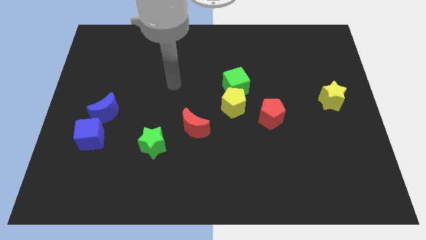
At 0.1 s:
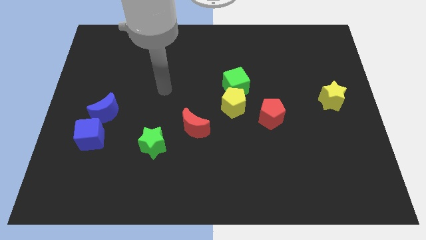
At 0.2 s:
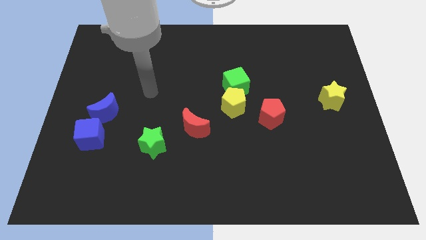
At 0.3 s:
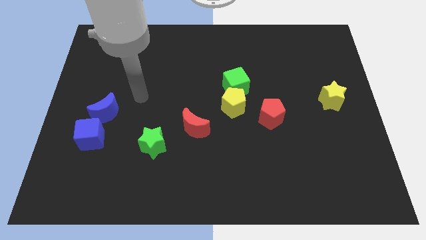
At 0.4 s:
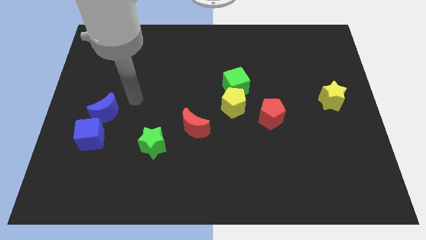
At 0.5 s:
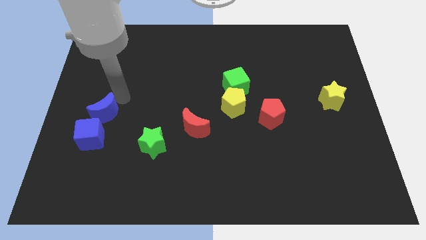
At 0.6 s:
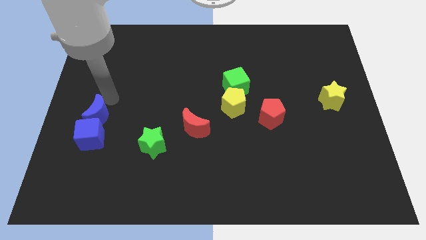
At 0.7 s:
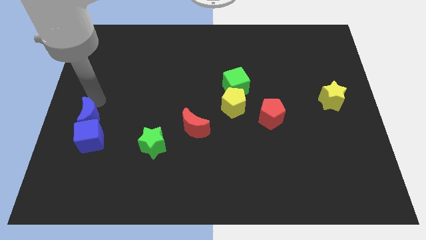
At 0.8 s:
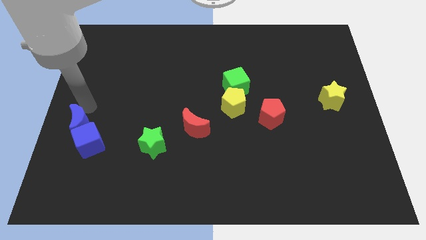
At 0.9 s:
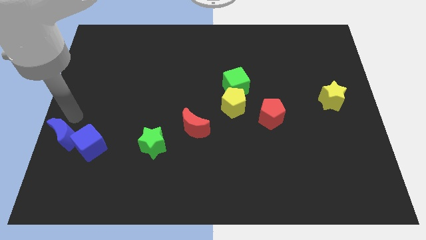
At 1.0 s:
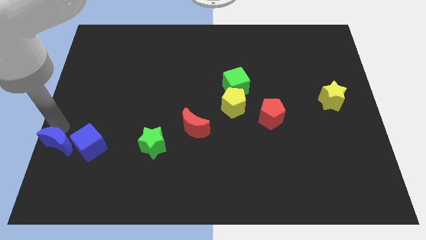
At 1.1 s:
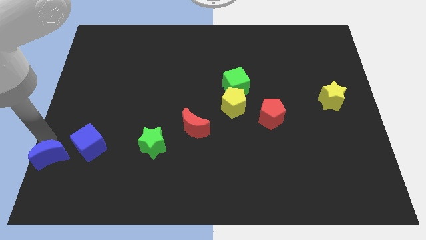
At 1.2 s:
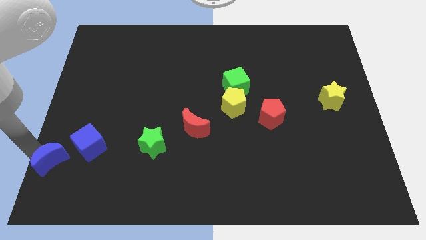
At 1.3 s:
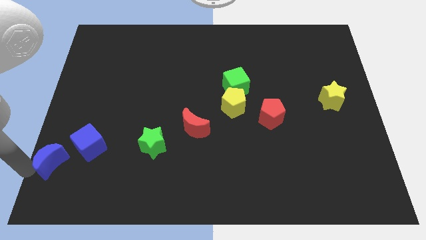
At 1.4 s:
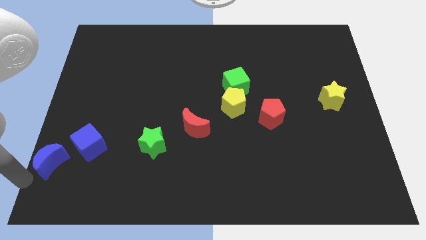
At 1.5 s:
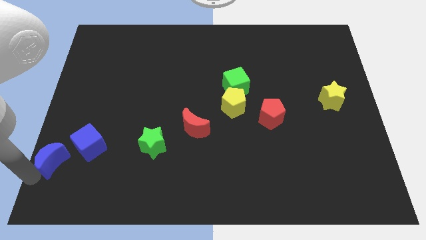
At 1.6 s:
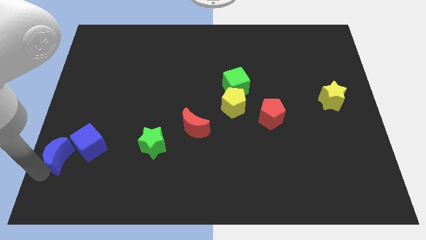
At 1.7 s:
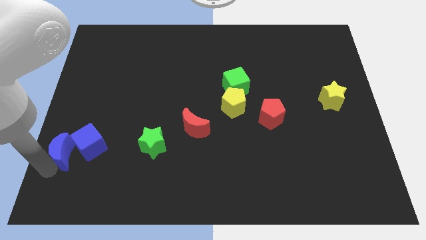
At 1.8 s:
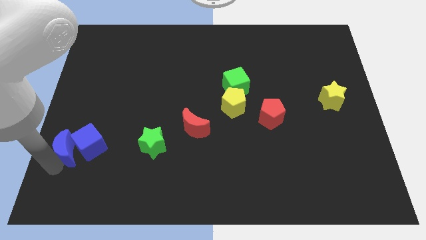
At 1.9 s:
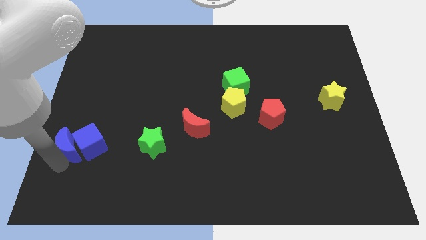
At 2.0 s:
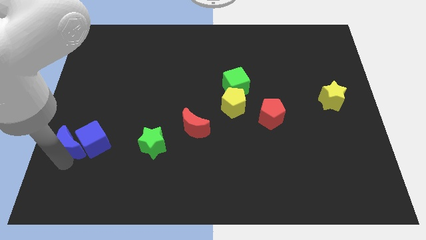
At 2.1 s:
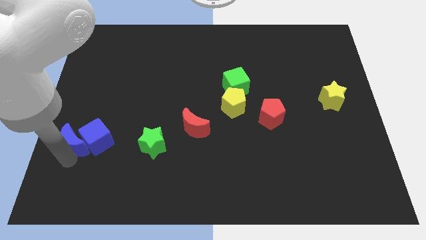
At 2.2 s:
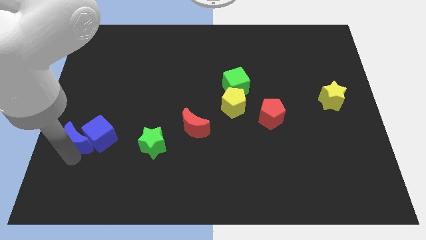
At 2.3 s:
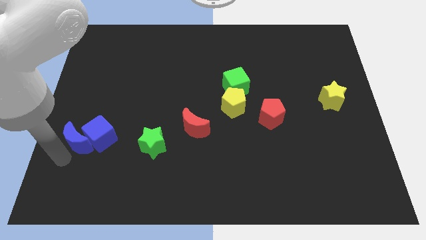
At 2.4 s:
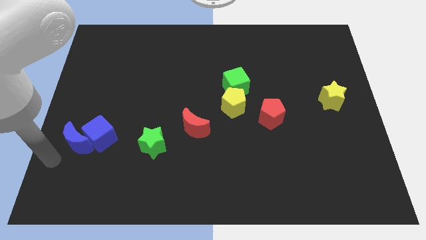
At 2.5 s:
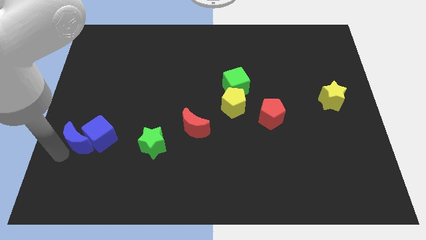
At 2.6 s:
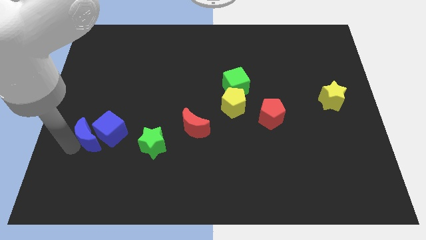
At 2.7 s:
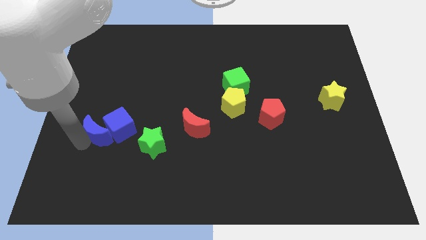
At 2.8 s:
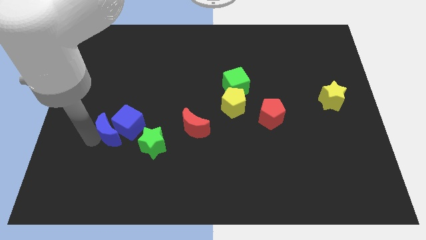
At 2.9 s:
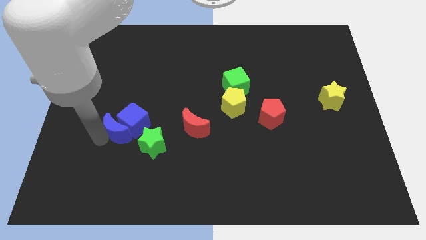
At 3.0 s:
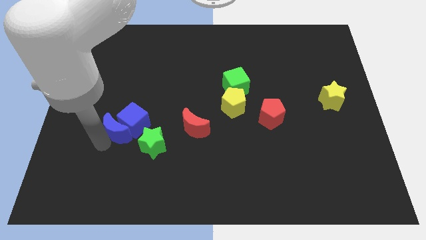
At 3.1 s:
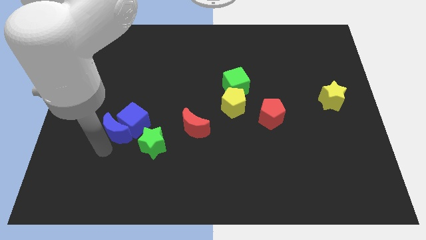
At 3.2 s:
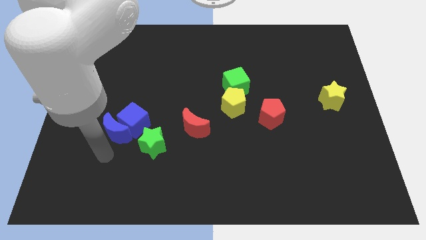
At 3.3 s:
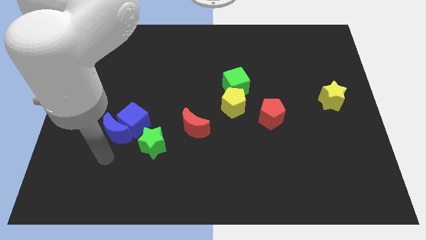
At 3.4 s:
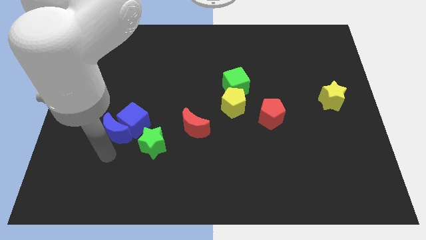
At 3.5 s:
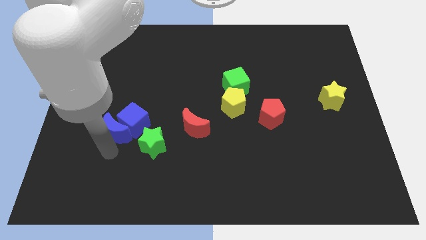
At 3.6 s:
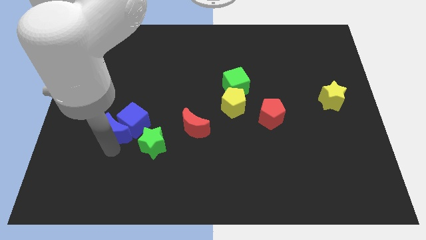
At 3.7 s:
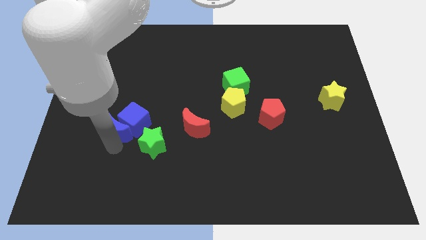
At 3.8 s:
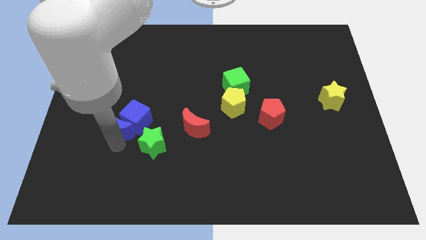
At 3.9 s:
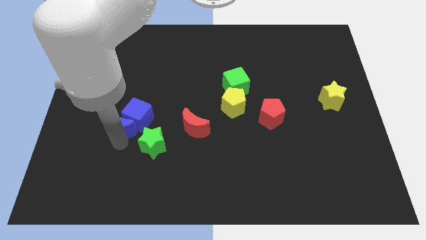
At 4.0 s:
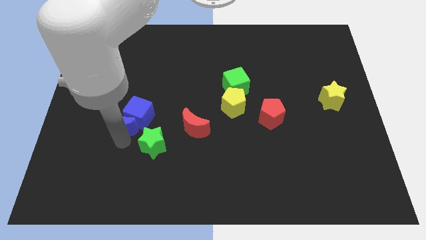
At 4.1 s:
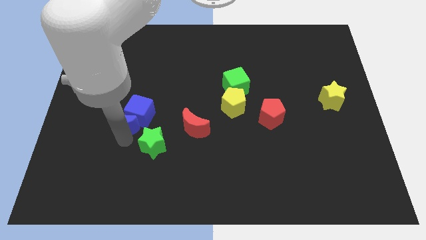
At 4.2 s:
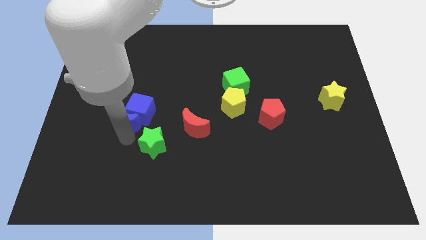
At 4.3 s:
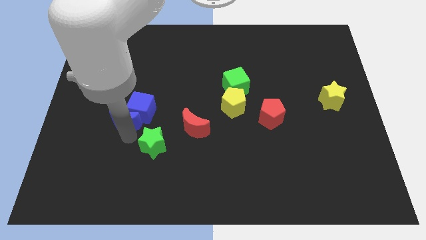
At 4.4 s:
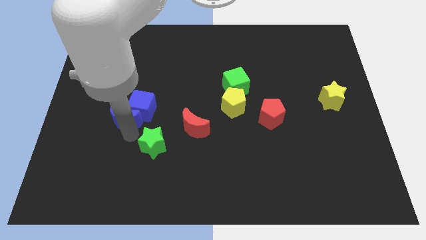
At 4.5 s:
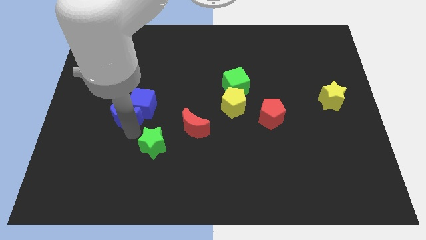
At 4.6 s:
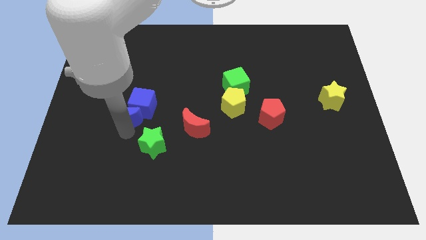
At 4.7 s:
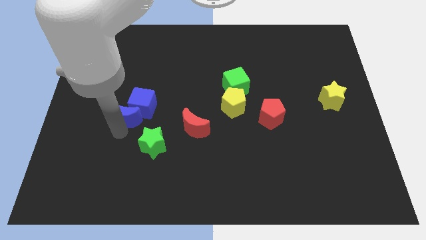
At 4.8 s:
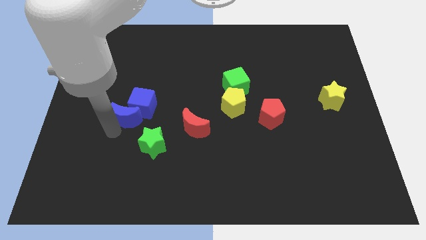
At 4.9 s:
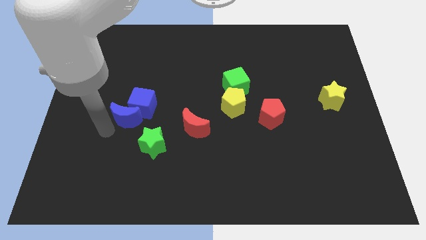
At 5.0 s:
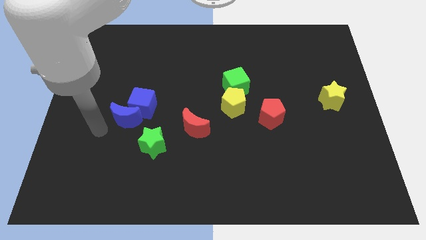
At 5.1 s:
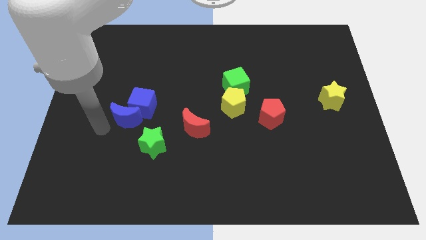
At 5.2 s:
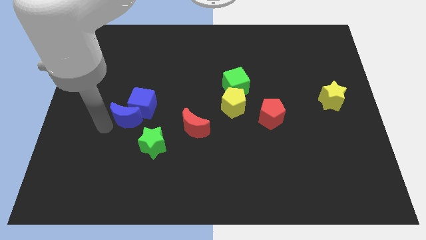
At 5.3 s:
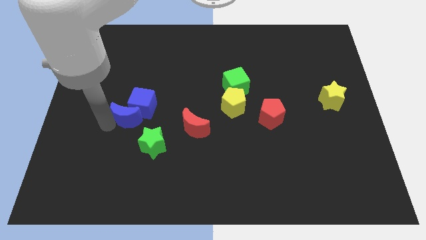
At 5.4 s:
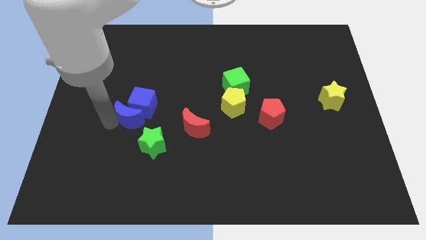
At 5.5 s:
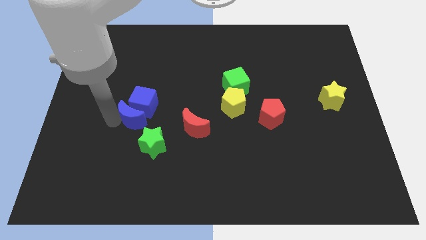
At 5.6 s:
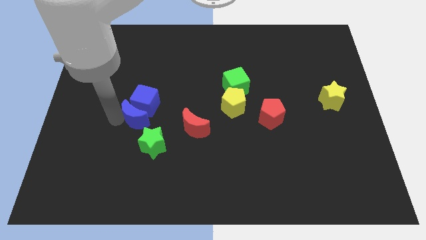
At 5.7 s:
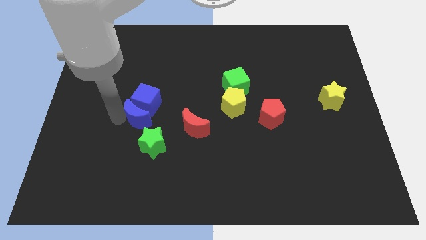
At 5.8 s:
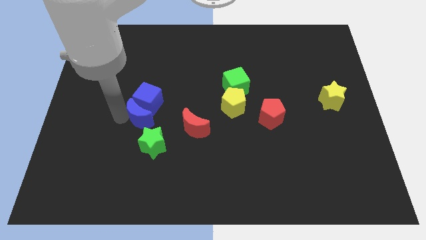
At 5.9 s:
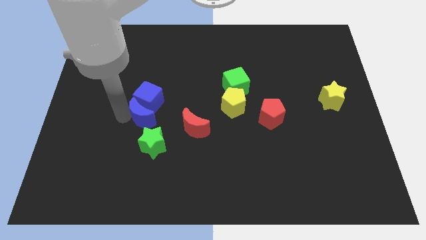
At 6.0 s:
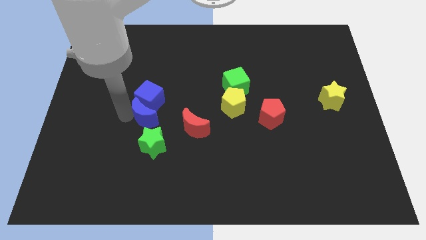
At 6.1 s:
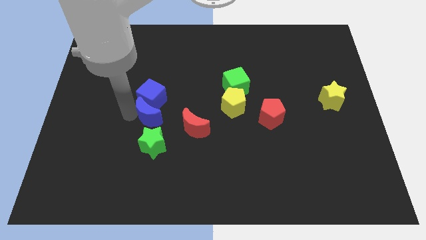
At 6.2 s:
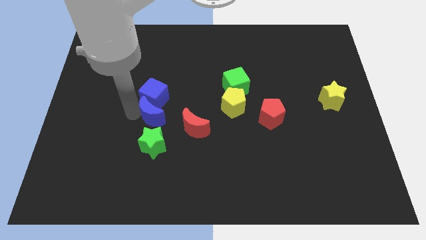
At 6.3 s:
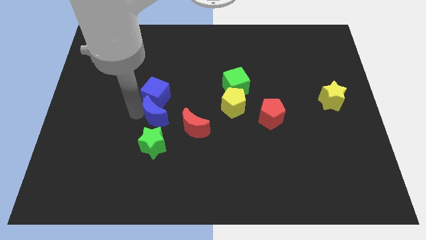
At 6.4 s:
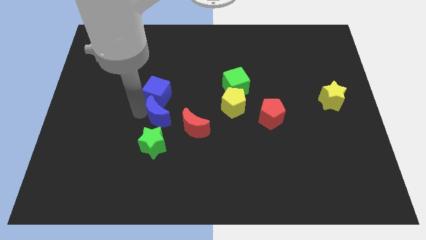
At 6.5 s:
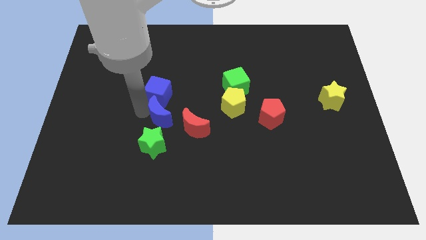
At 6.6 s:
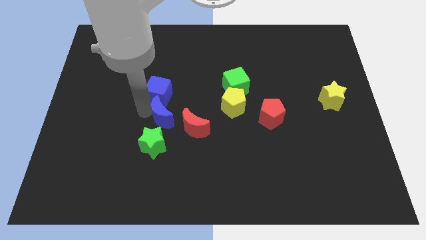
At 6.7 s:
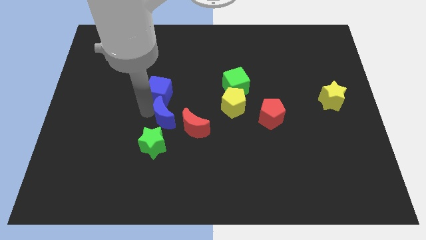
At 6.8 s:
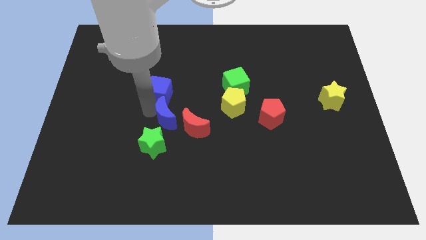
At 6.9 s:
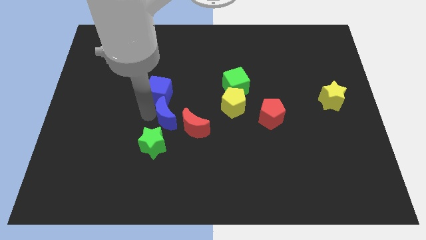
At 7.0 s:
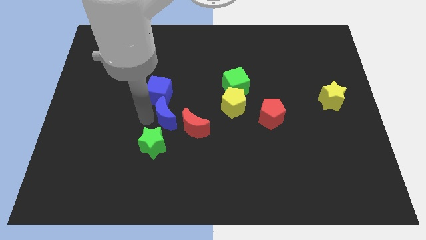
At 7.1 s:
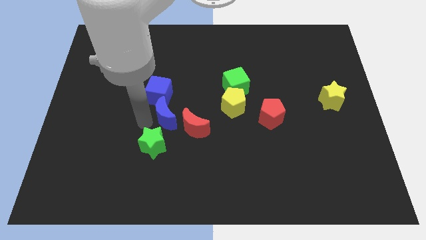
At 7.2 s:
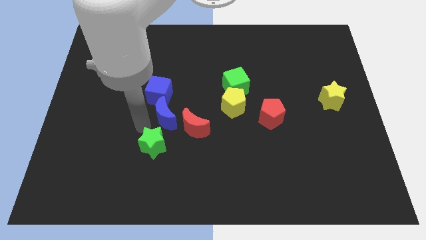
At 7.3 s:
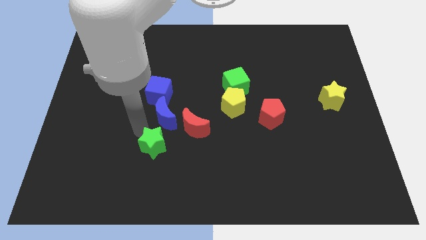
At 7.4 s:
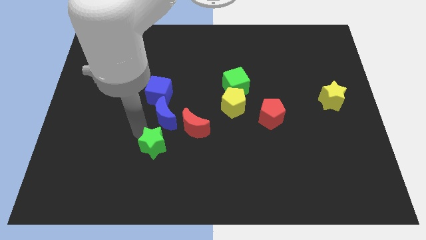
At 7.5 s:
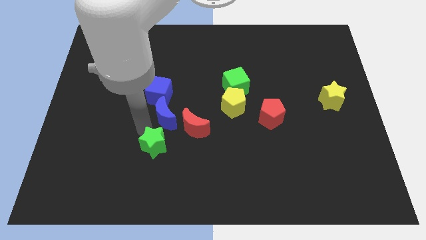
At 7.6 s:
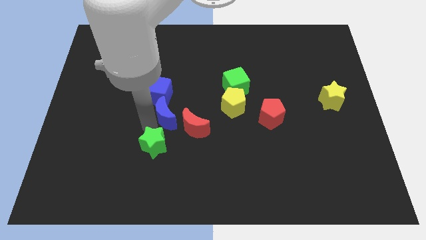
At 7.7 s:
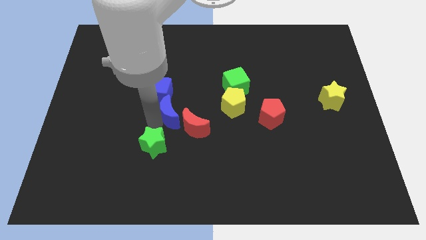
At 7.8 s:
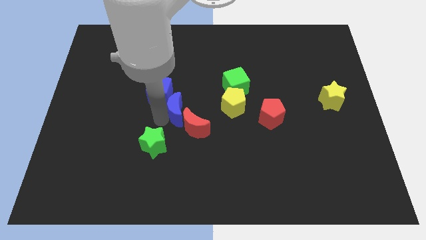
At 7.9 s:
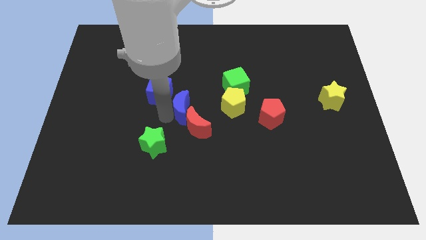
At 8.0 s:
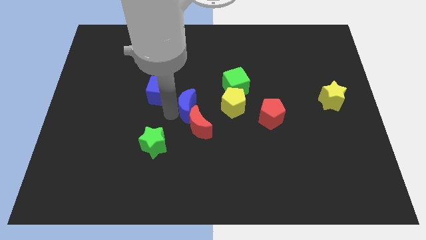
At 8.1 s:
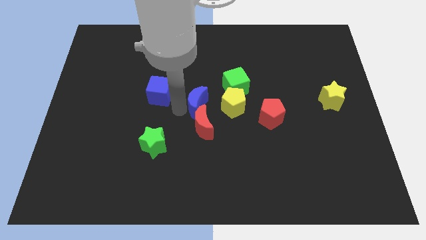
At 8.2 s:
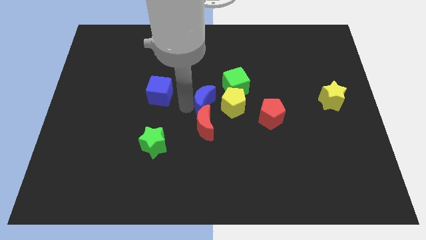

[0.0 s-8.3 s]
slide the blue moon to the top right of the red moon
